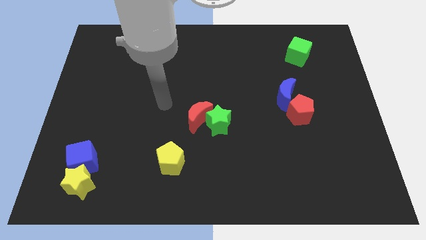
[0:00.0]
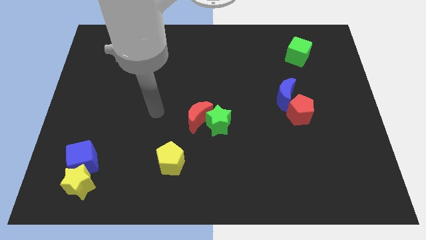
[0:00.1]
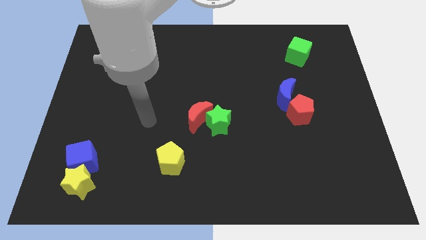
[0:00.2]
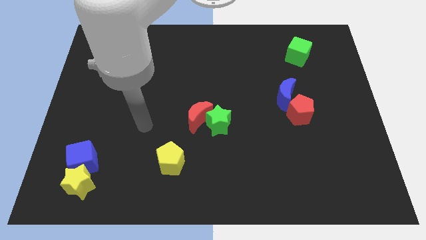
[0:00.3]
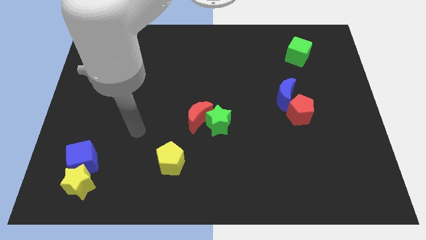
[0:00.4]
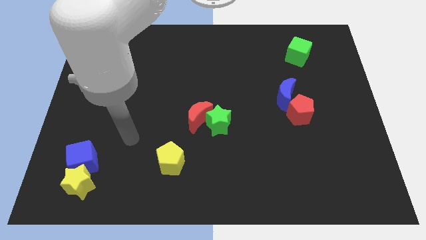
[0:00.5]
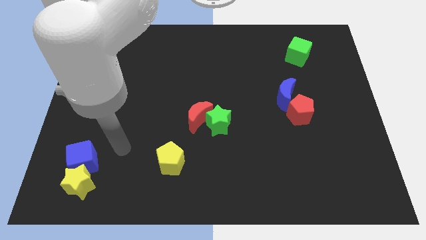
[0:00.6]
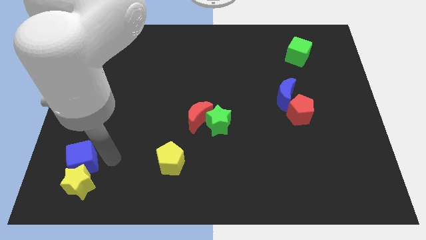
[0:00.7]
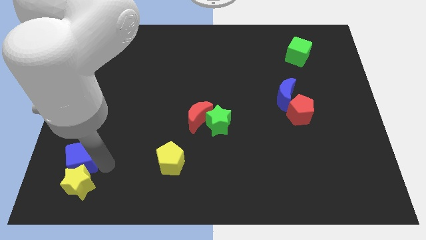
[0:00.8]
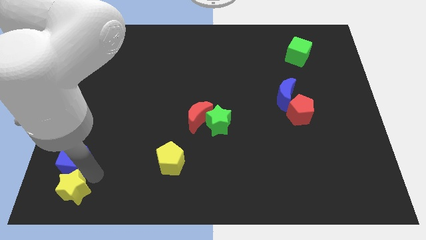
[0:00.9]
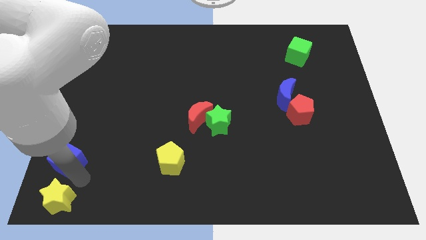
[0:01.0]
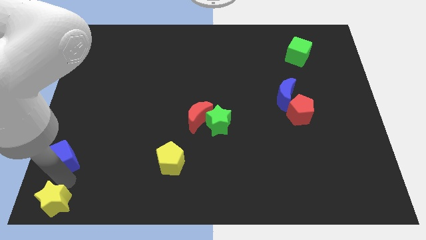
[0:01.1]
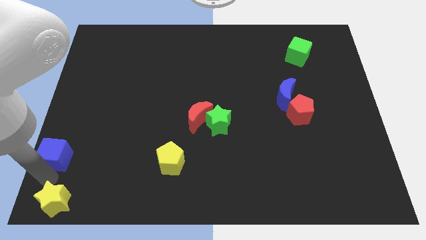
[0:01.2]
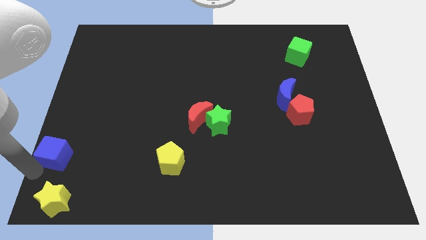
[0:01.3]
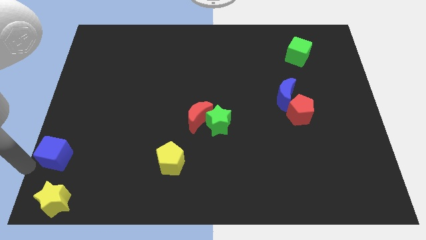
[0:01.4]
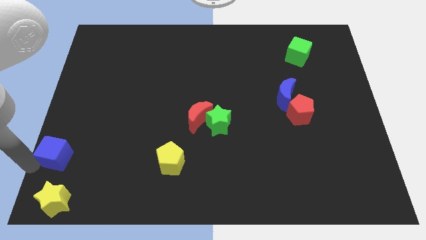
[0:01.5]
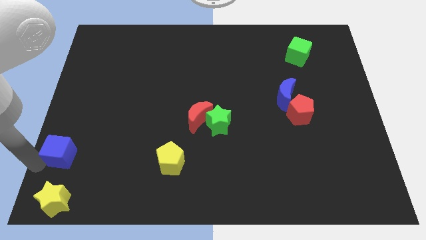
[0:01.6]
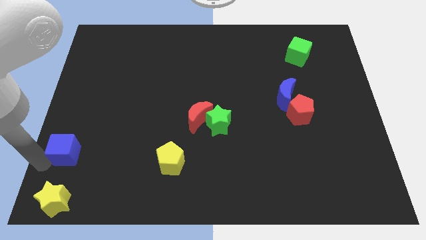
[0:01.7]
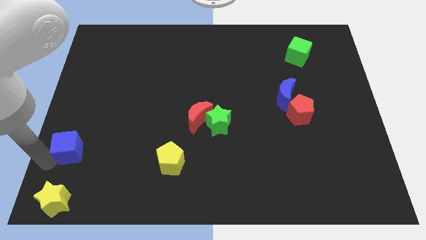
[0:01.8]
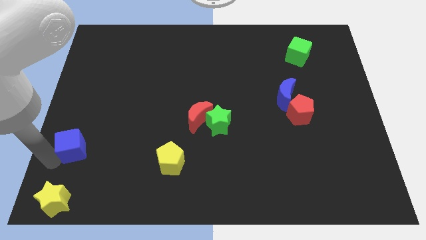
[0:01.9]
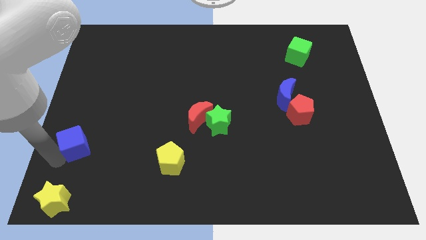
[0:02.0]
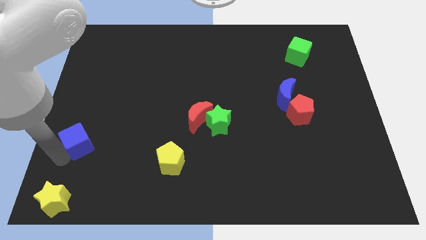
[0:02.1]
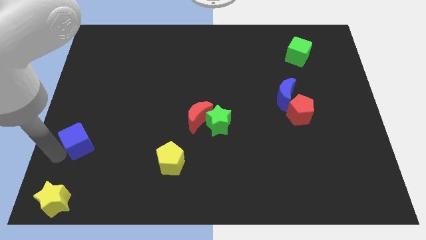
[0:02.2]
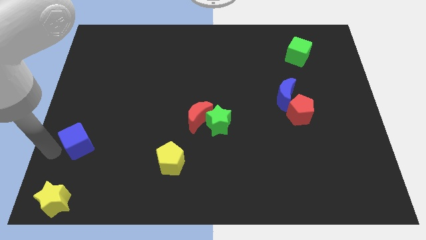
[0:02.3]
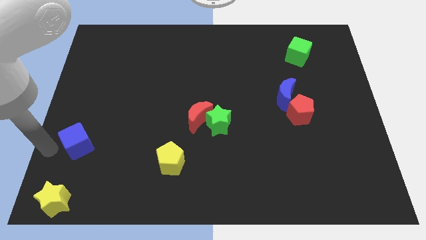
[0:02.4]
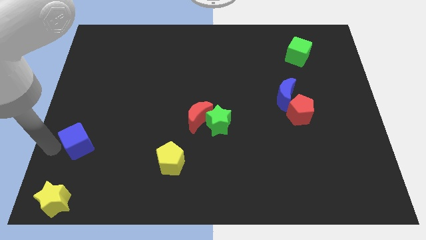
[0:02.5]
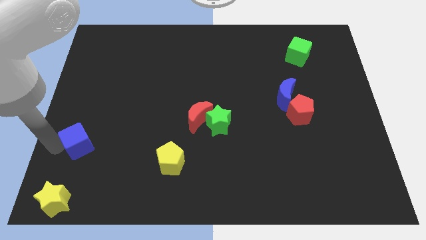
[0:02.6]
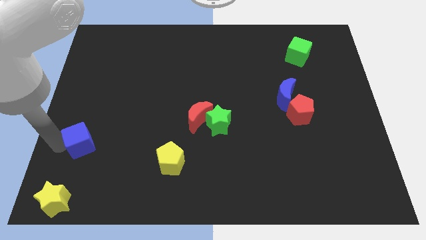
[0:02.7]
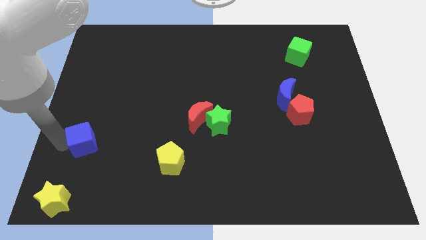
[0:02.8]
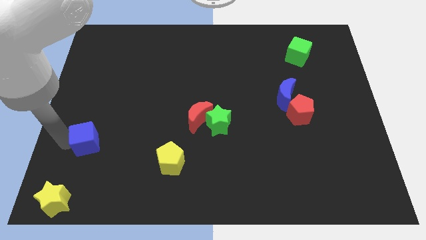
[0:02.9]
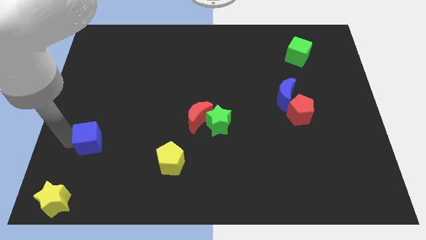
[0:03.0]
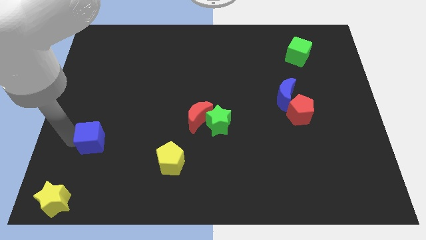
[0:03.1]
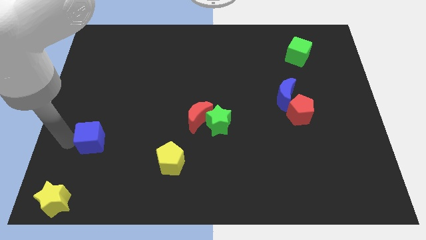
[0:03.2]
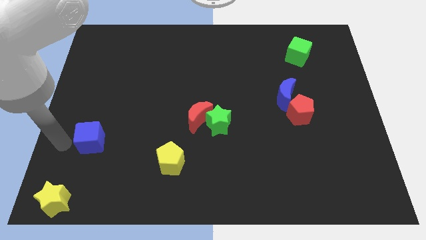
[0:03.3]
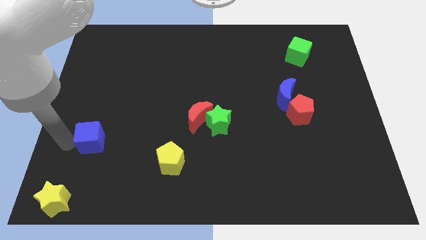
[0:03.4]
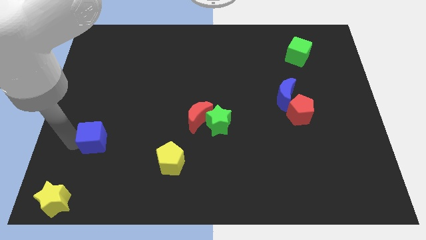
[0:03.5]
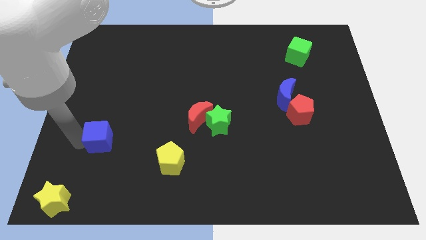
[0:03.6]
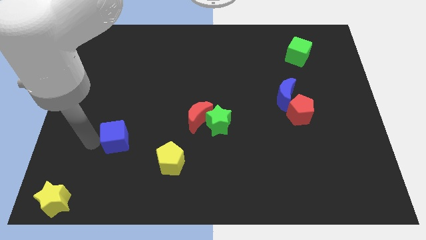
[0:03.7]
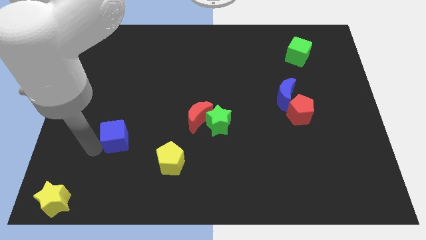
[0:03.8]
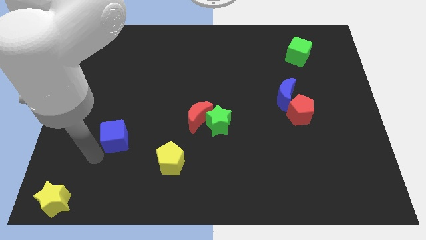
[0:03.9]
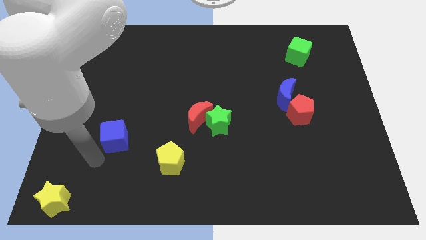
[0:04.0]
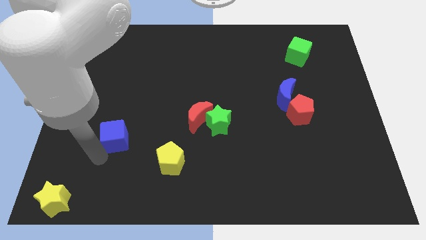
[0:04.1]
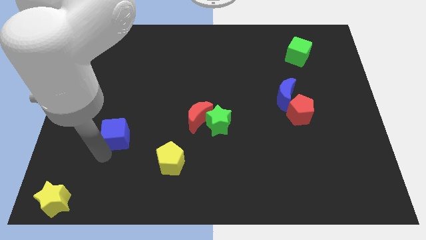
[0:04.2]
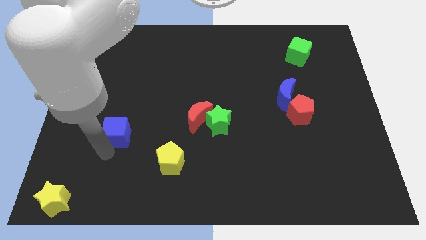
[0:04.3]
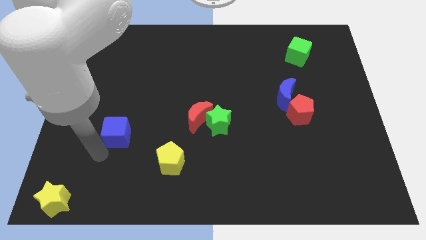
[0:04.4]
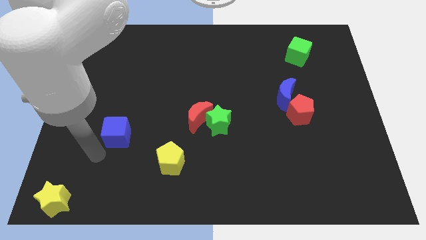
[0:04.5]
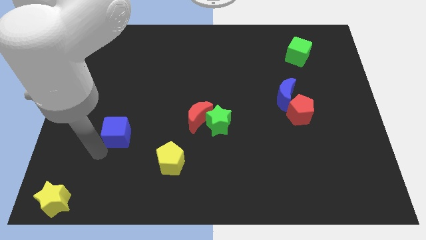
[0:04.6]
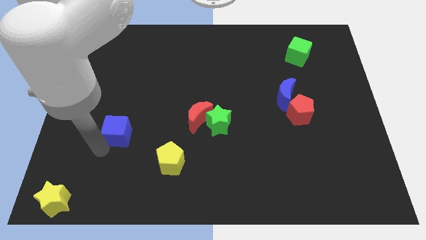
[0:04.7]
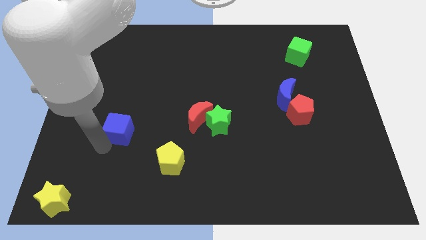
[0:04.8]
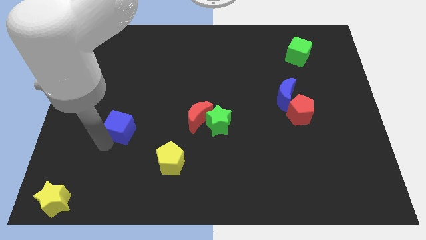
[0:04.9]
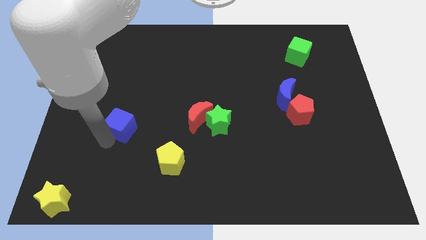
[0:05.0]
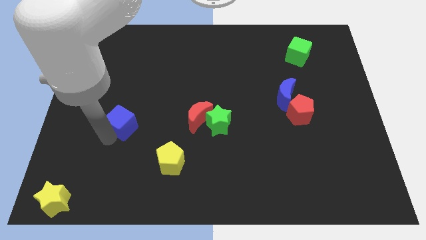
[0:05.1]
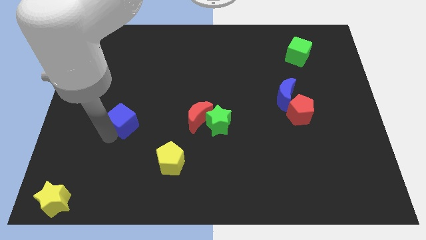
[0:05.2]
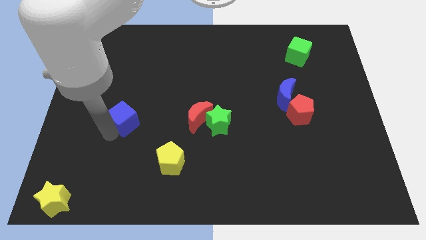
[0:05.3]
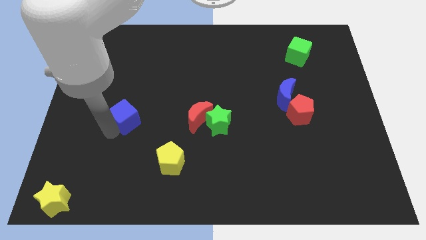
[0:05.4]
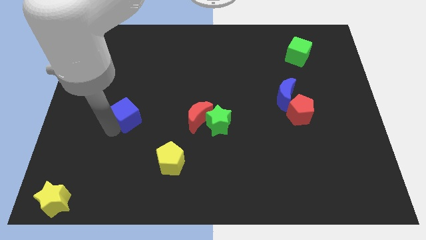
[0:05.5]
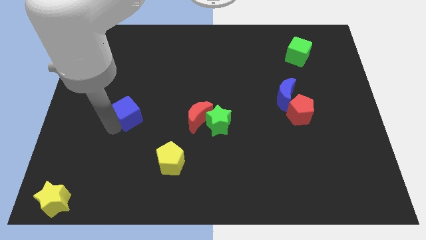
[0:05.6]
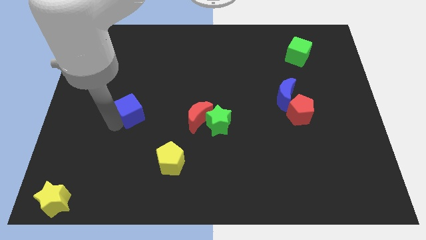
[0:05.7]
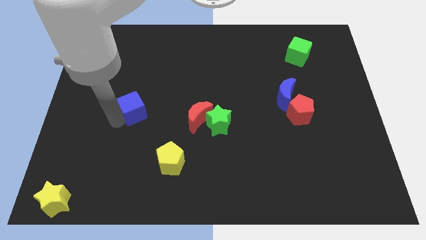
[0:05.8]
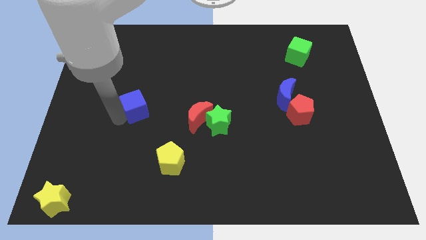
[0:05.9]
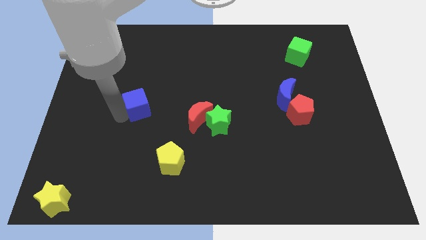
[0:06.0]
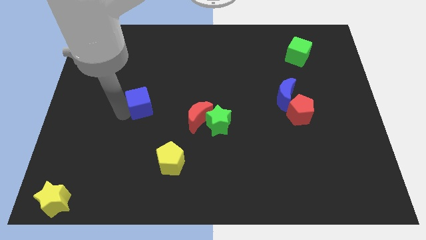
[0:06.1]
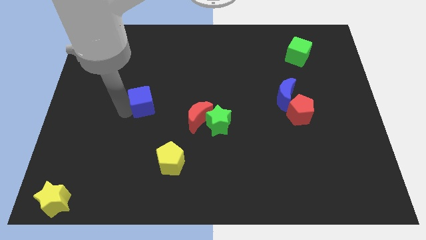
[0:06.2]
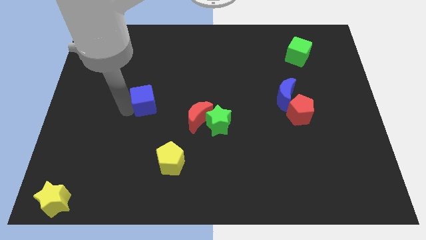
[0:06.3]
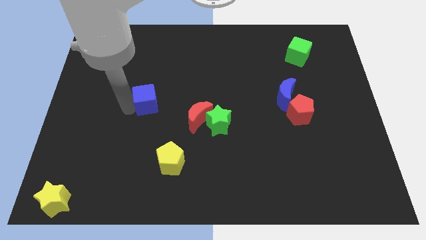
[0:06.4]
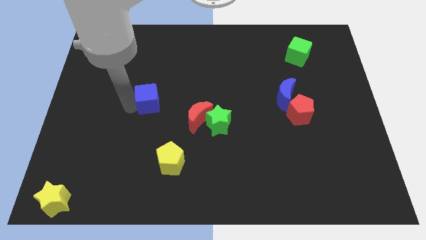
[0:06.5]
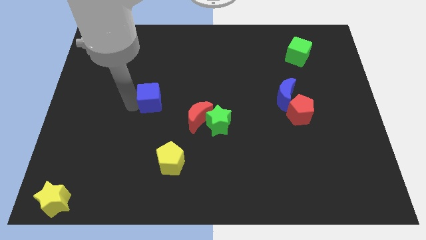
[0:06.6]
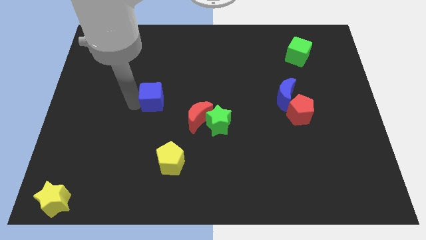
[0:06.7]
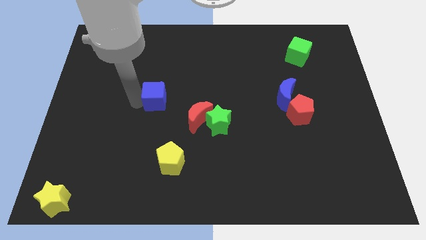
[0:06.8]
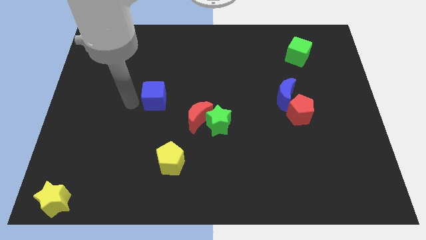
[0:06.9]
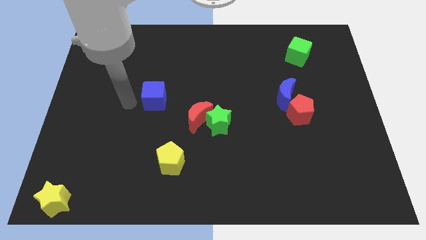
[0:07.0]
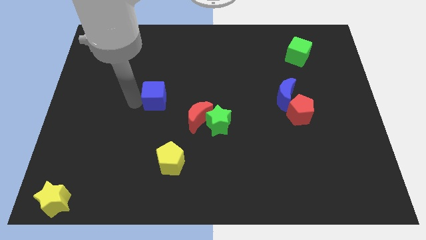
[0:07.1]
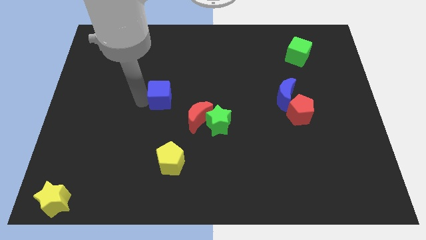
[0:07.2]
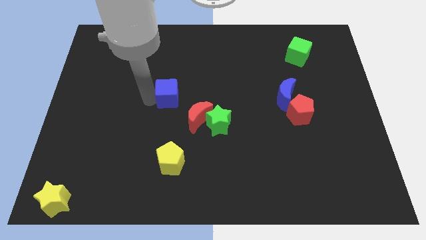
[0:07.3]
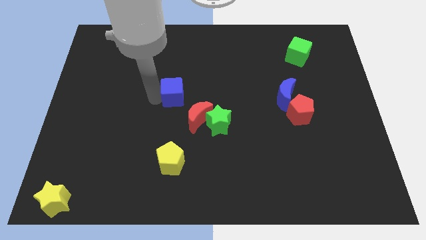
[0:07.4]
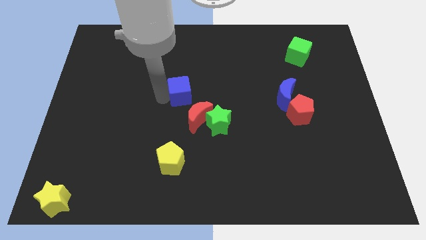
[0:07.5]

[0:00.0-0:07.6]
push the blue cube to the top side of the red moon
